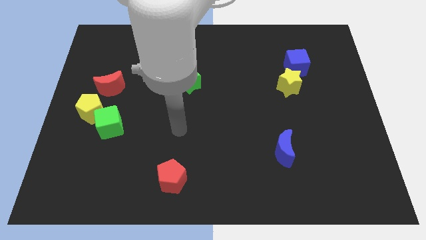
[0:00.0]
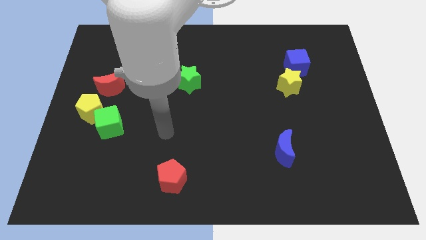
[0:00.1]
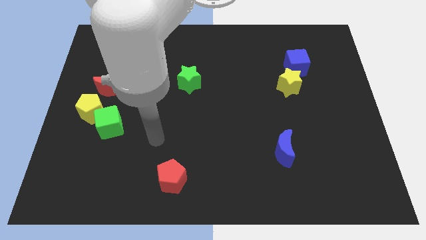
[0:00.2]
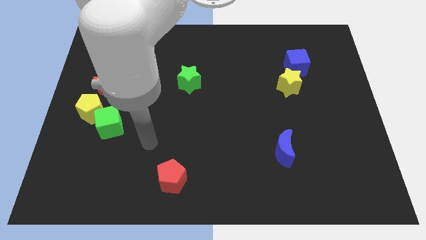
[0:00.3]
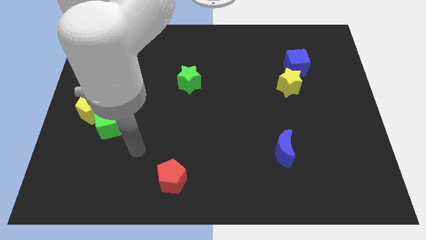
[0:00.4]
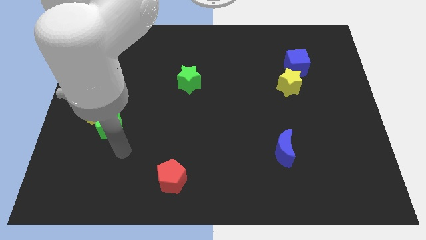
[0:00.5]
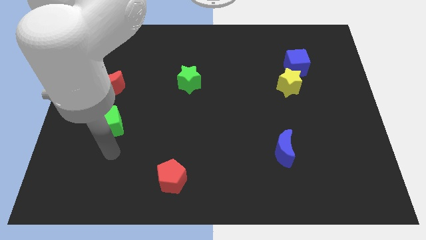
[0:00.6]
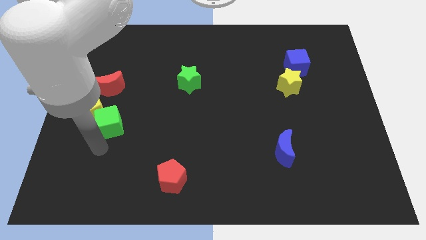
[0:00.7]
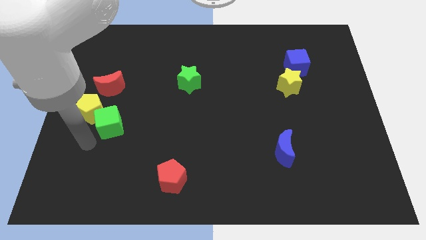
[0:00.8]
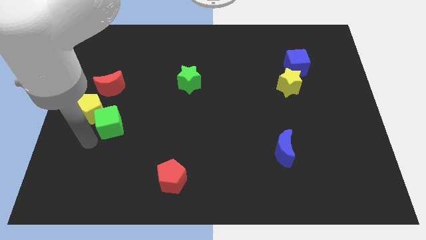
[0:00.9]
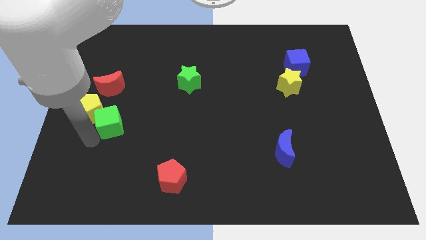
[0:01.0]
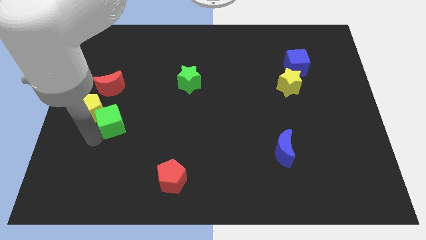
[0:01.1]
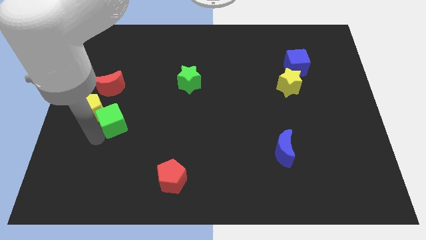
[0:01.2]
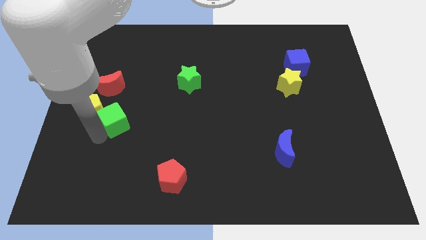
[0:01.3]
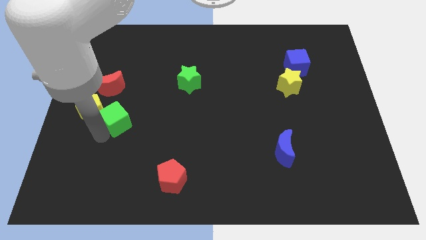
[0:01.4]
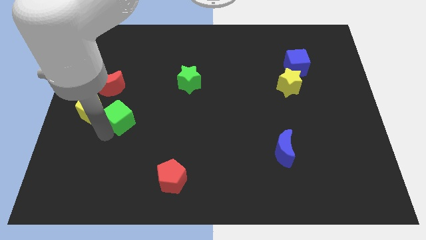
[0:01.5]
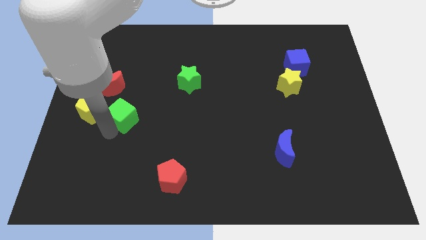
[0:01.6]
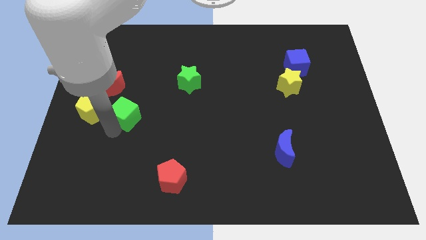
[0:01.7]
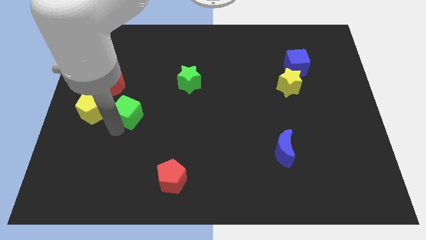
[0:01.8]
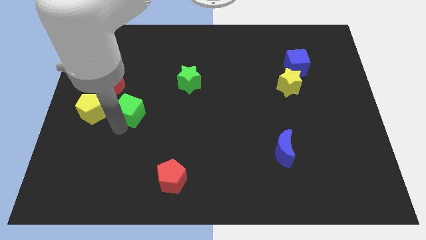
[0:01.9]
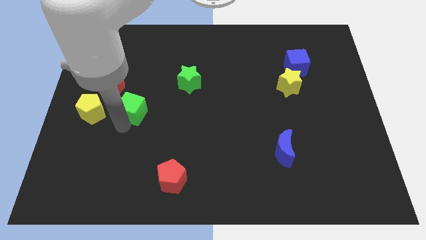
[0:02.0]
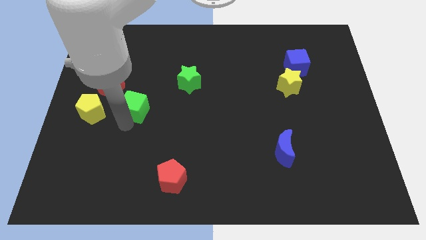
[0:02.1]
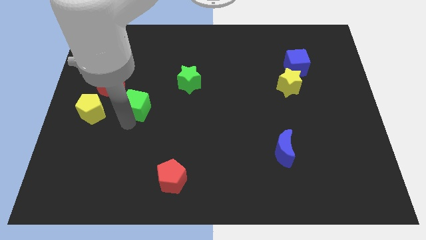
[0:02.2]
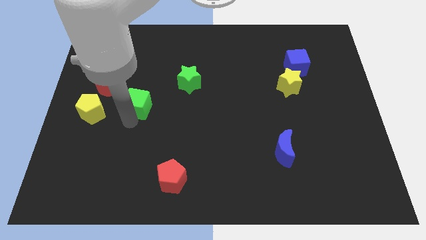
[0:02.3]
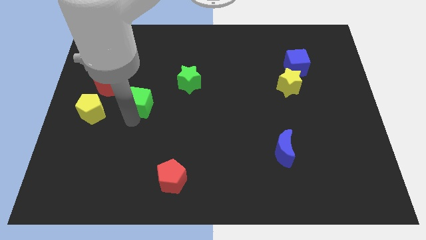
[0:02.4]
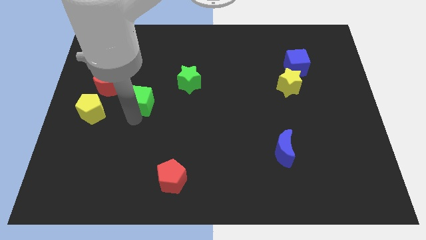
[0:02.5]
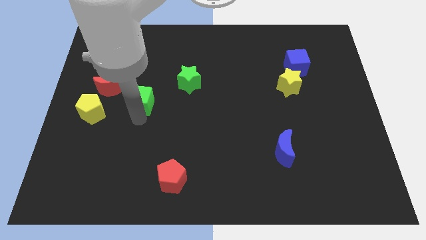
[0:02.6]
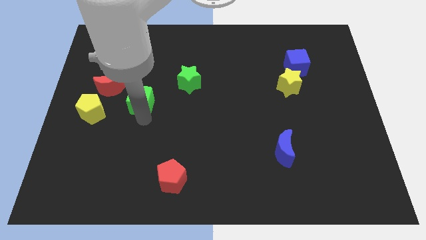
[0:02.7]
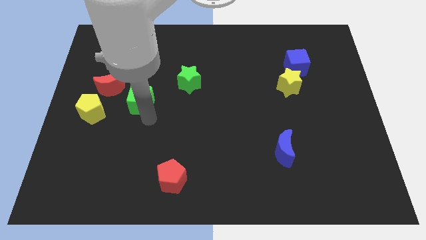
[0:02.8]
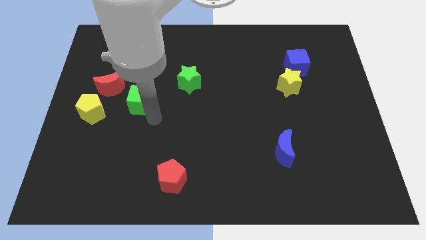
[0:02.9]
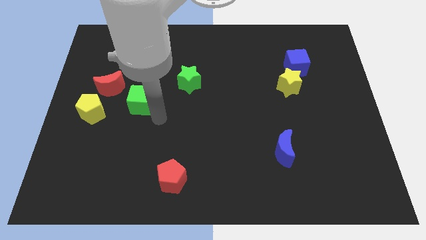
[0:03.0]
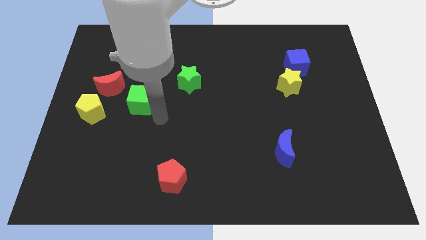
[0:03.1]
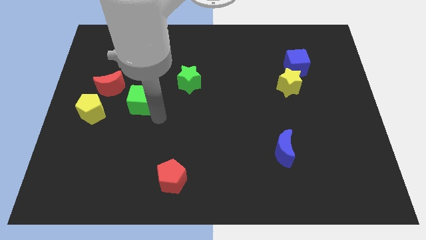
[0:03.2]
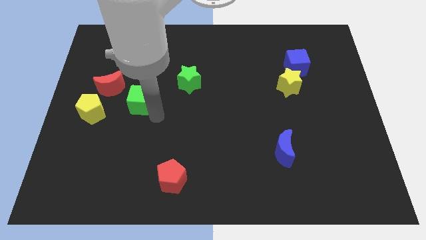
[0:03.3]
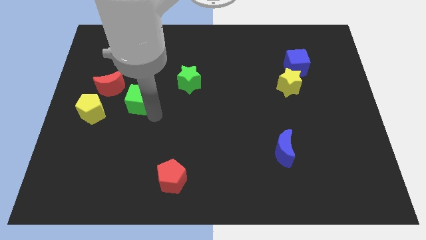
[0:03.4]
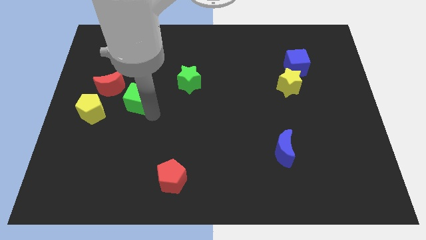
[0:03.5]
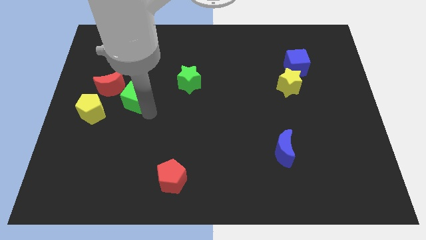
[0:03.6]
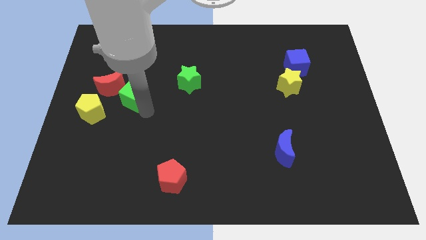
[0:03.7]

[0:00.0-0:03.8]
slightly push the green cube up

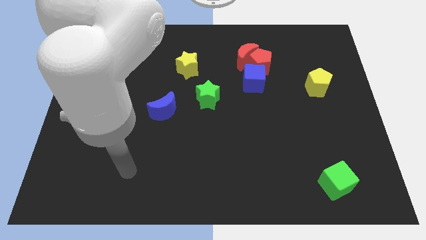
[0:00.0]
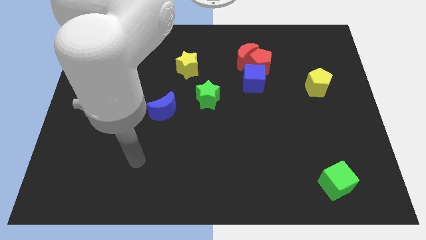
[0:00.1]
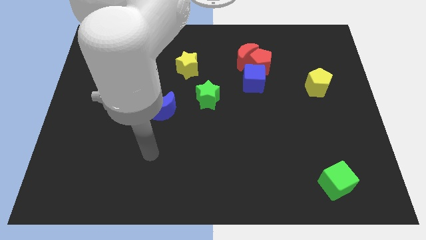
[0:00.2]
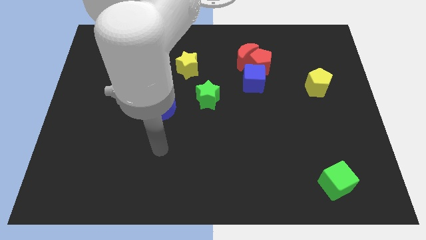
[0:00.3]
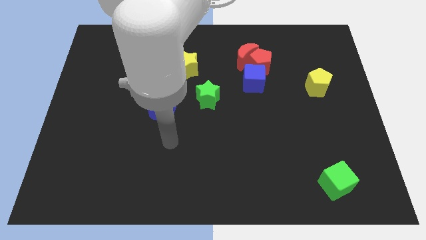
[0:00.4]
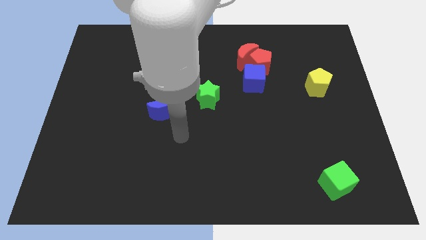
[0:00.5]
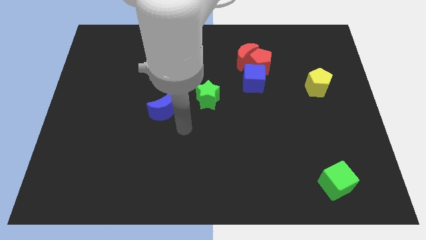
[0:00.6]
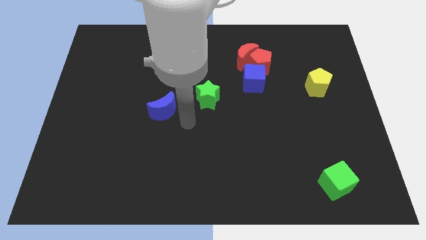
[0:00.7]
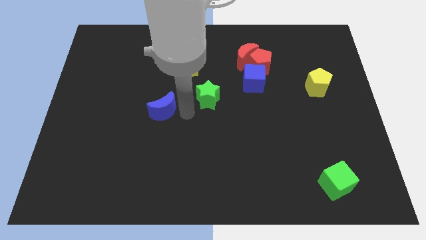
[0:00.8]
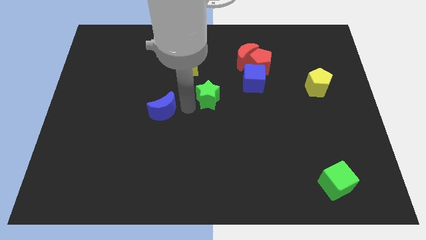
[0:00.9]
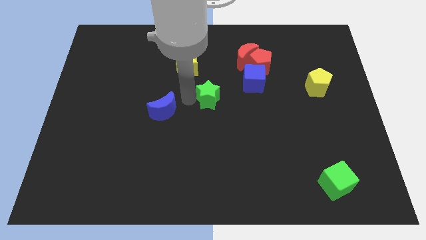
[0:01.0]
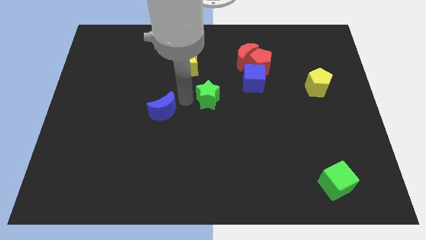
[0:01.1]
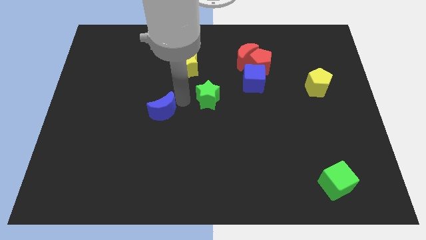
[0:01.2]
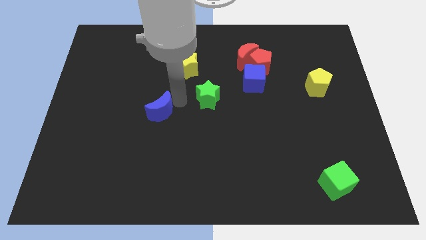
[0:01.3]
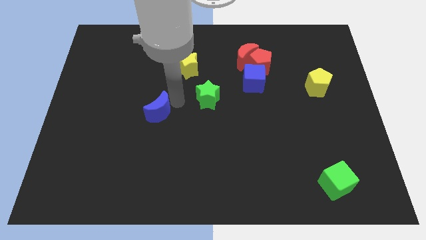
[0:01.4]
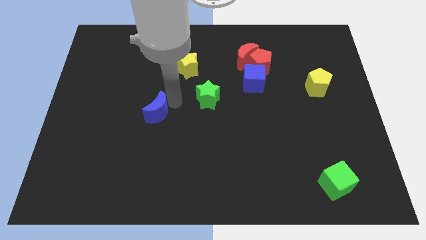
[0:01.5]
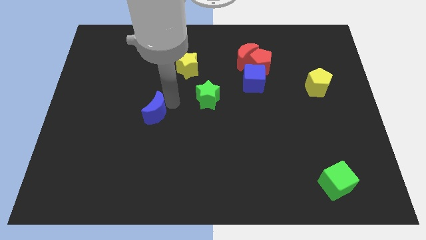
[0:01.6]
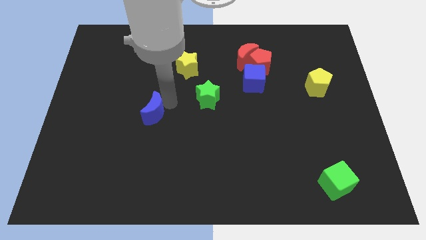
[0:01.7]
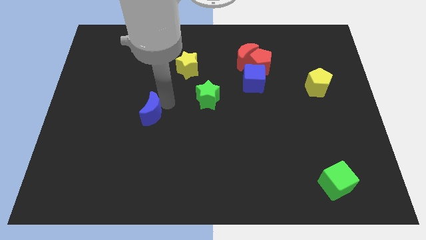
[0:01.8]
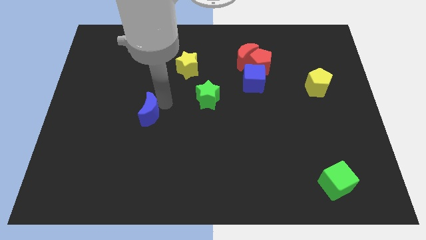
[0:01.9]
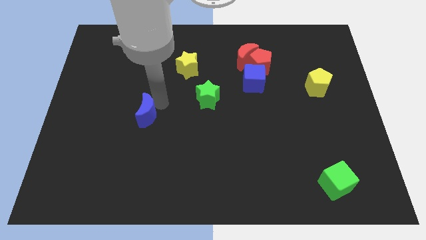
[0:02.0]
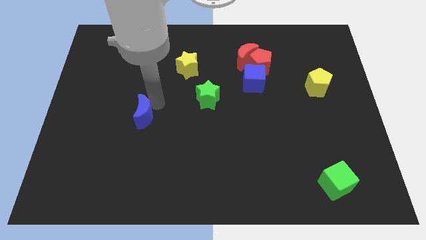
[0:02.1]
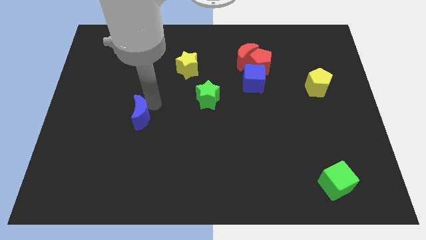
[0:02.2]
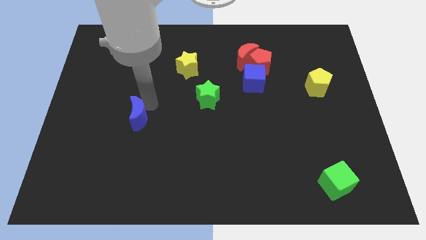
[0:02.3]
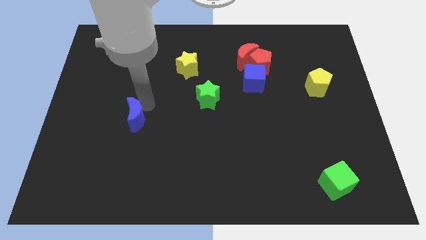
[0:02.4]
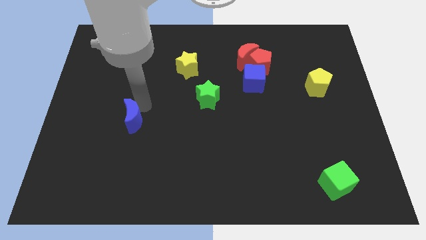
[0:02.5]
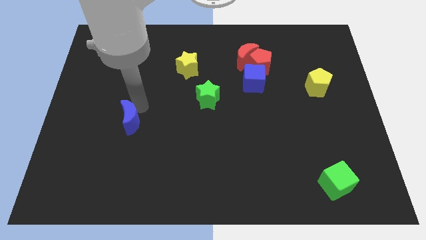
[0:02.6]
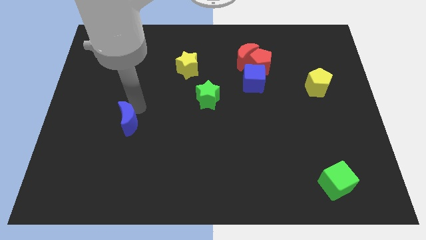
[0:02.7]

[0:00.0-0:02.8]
move the blue moon downwards and then to the left a little bit

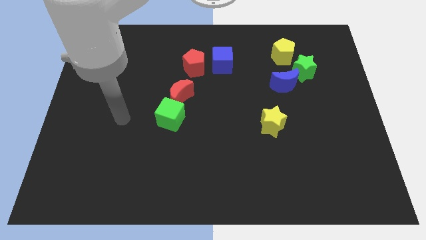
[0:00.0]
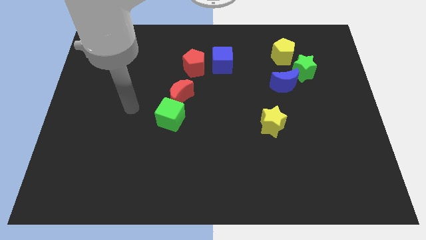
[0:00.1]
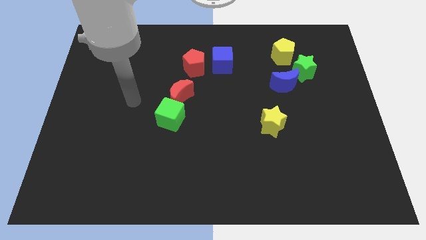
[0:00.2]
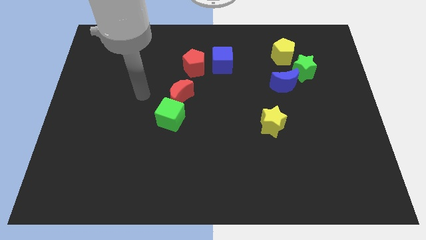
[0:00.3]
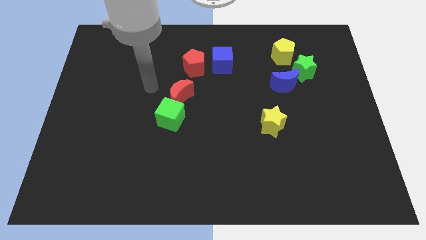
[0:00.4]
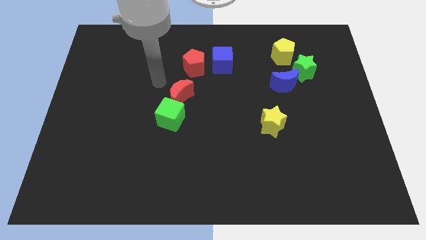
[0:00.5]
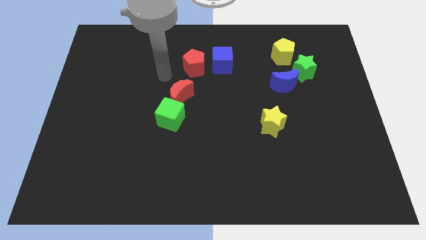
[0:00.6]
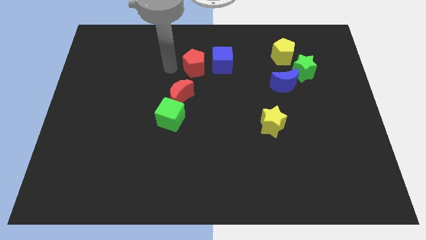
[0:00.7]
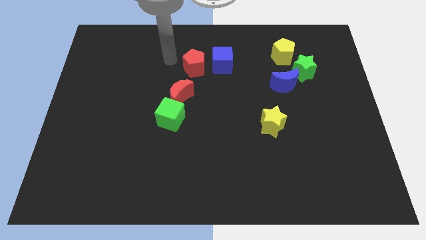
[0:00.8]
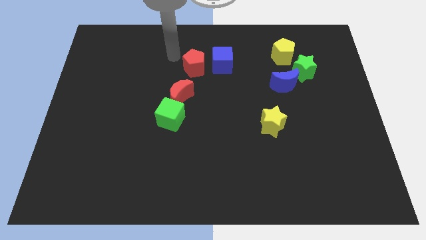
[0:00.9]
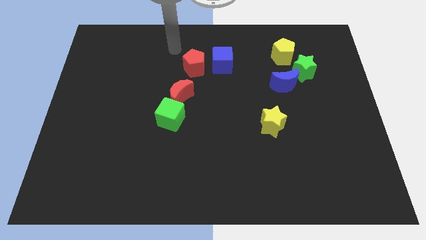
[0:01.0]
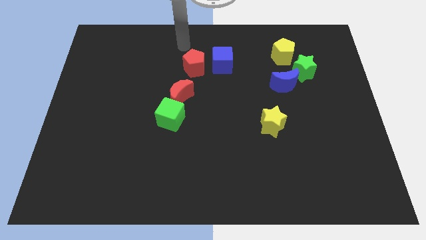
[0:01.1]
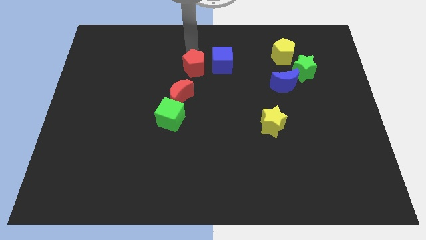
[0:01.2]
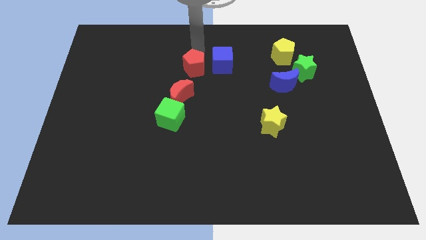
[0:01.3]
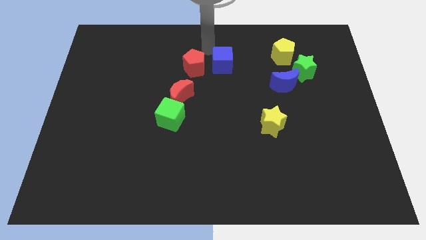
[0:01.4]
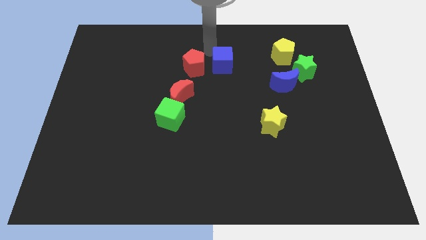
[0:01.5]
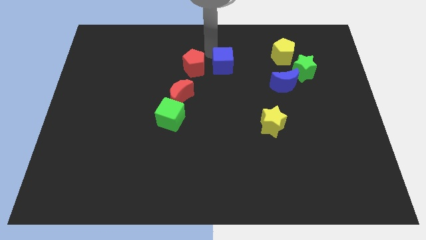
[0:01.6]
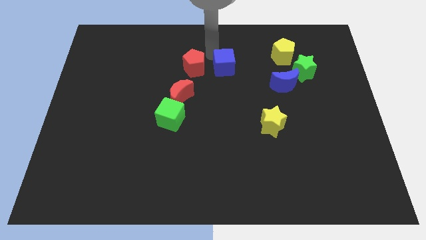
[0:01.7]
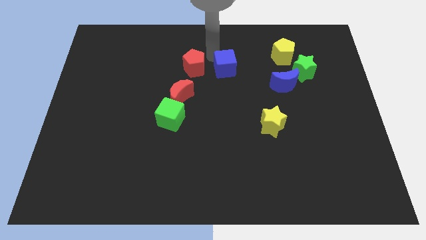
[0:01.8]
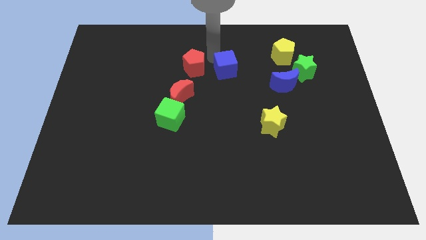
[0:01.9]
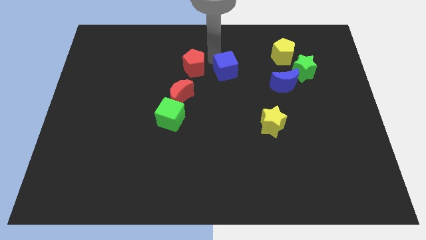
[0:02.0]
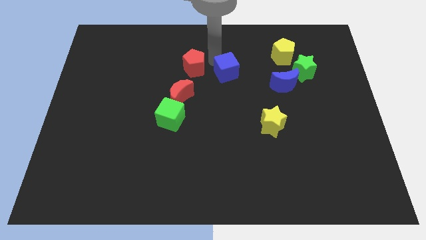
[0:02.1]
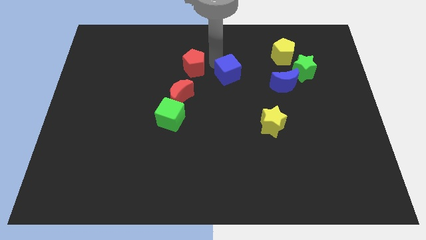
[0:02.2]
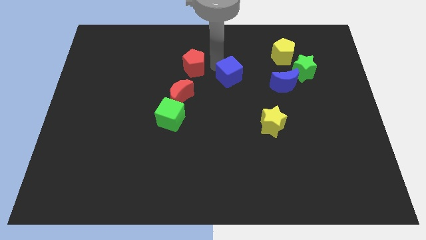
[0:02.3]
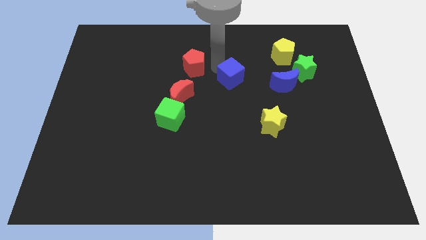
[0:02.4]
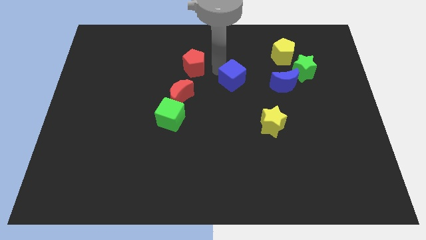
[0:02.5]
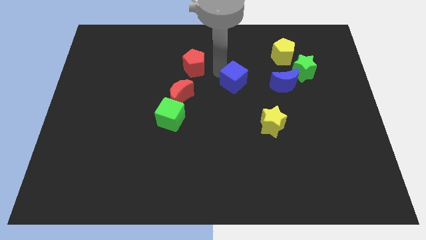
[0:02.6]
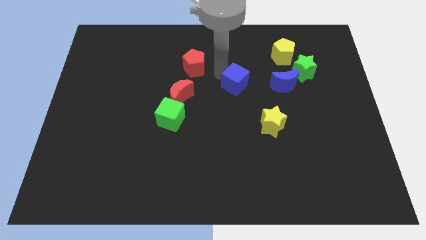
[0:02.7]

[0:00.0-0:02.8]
push the blue cube downwards and then right a little bit
